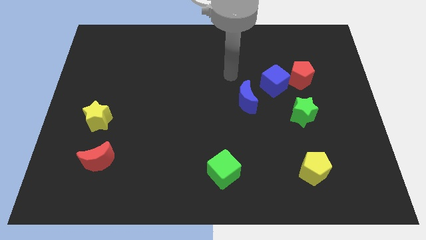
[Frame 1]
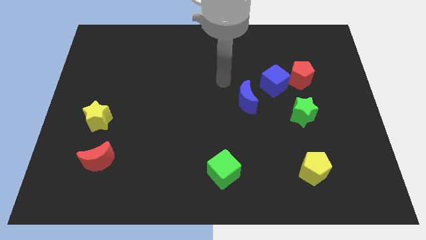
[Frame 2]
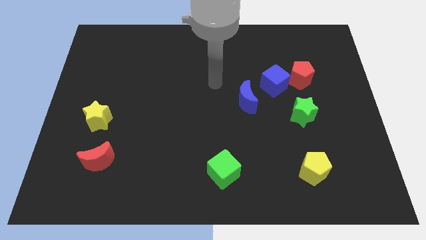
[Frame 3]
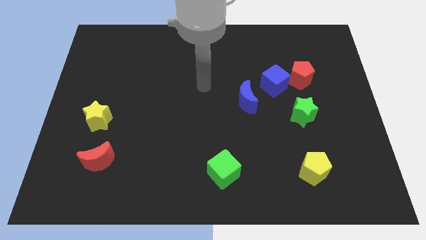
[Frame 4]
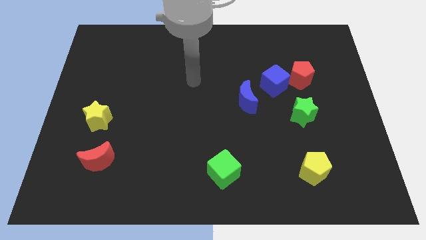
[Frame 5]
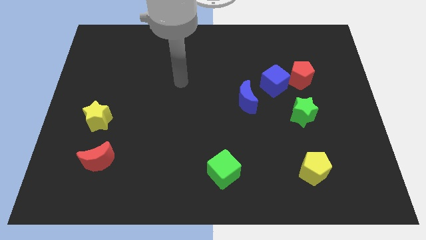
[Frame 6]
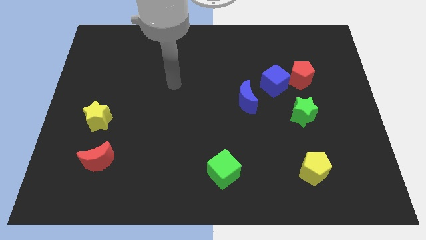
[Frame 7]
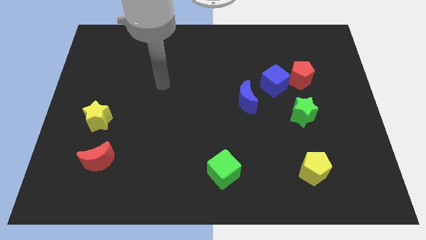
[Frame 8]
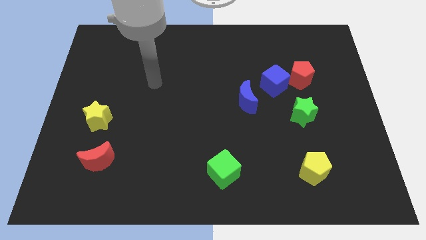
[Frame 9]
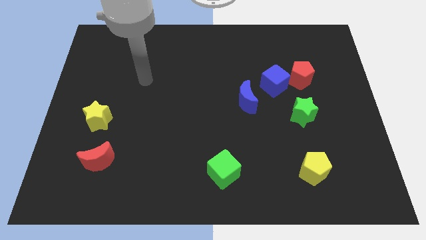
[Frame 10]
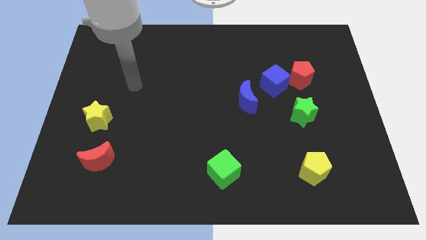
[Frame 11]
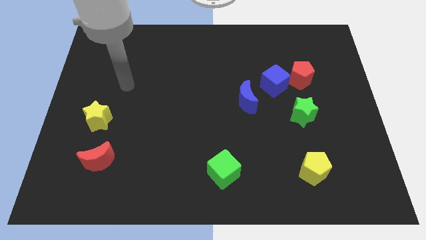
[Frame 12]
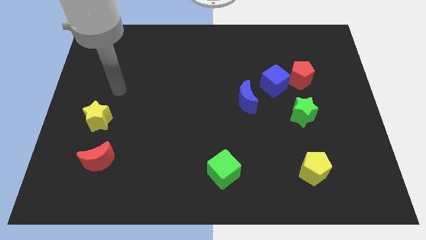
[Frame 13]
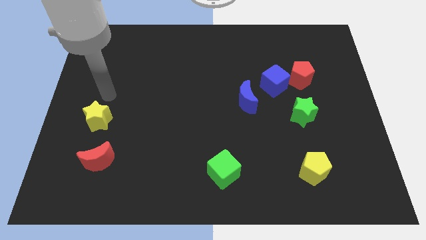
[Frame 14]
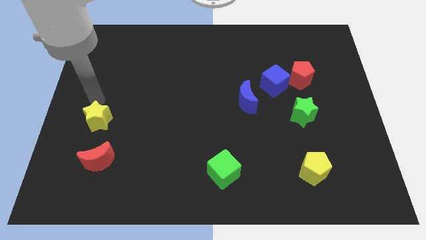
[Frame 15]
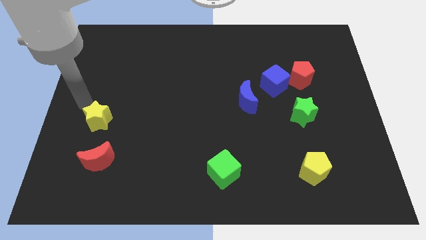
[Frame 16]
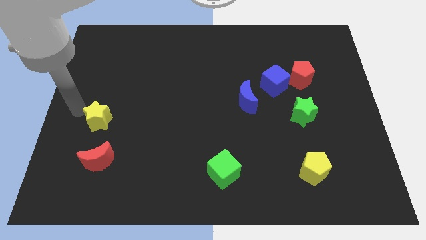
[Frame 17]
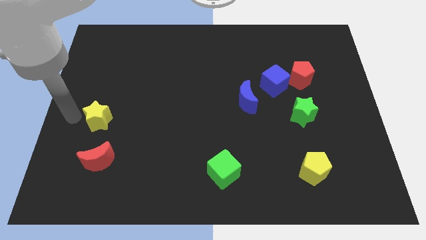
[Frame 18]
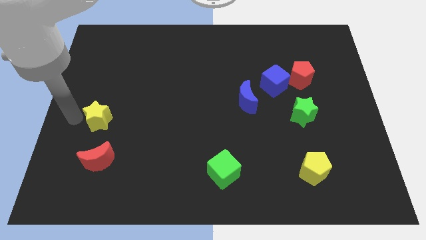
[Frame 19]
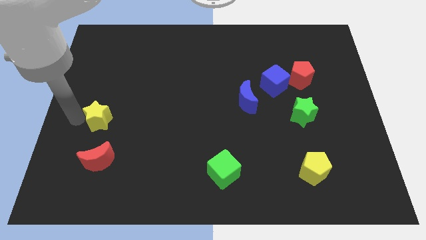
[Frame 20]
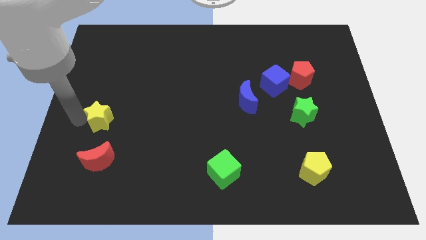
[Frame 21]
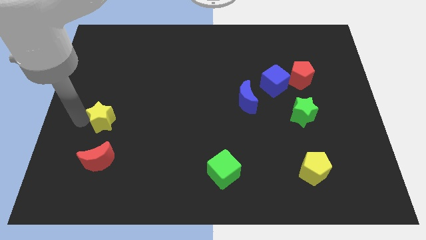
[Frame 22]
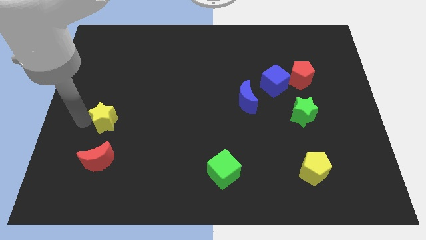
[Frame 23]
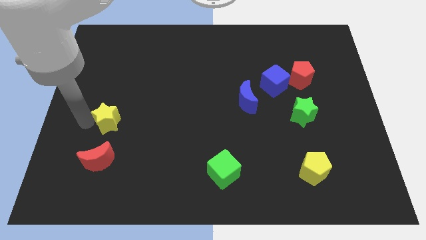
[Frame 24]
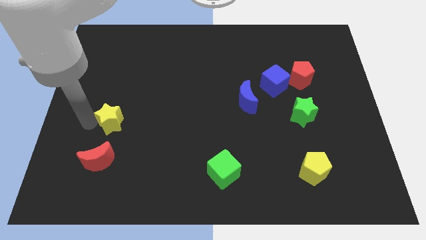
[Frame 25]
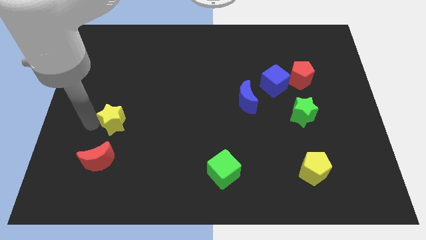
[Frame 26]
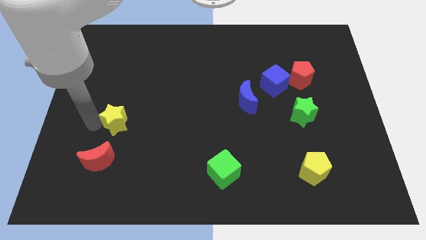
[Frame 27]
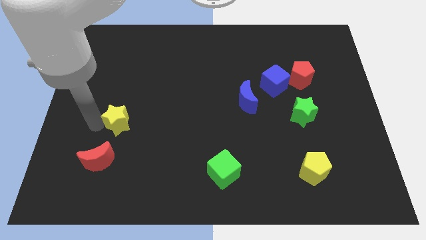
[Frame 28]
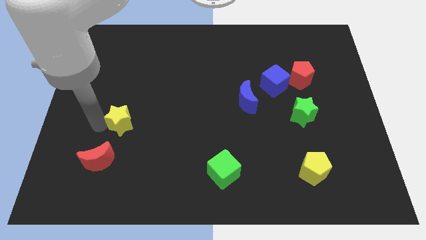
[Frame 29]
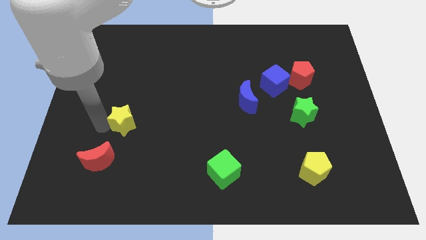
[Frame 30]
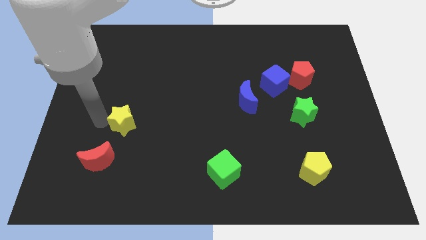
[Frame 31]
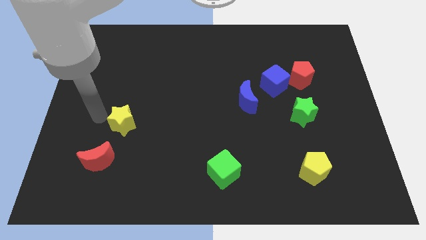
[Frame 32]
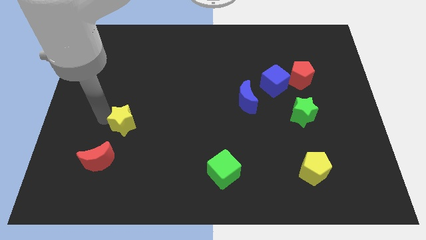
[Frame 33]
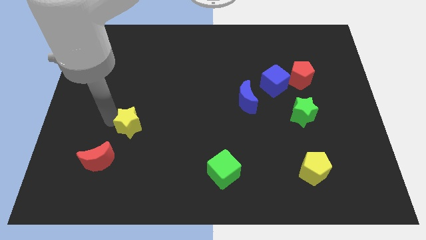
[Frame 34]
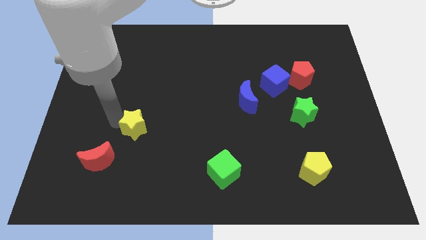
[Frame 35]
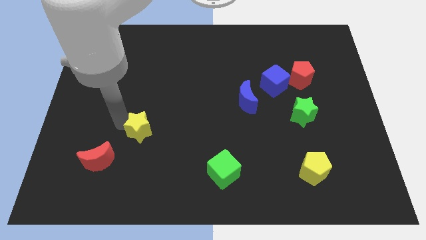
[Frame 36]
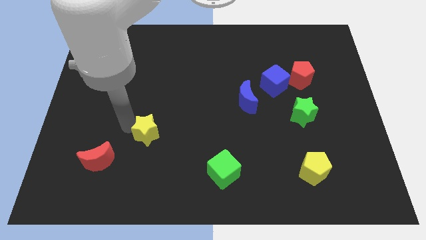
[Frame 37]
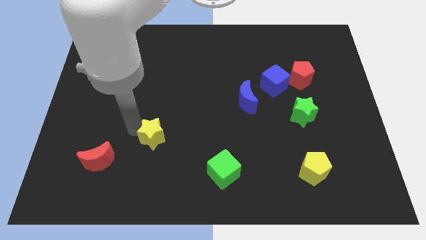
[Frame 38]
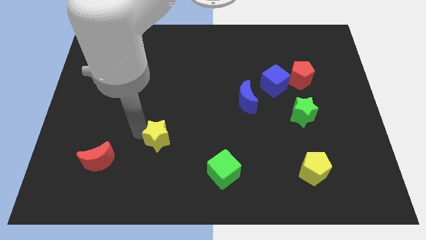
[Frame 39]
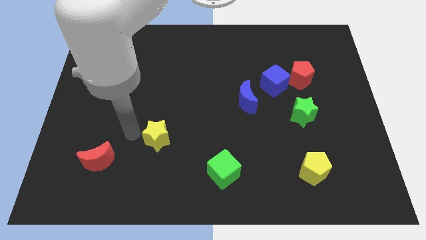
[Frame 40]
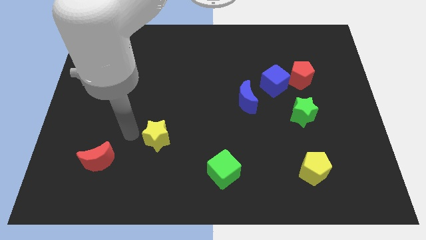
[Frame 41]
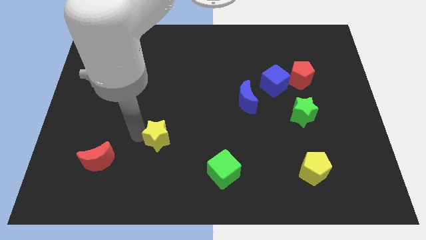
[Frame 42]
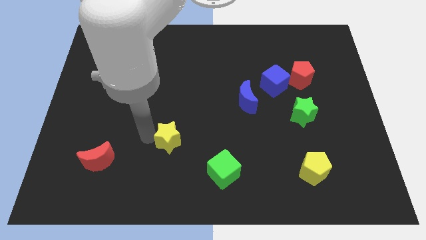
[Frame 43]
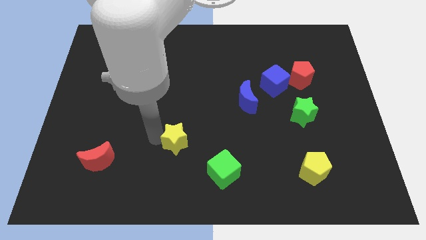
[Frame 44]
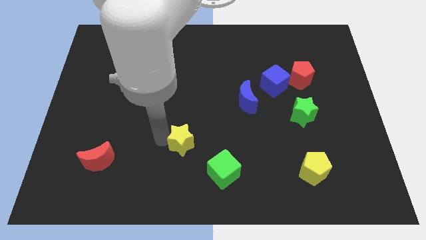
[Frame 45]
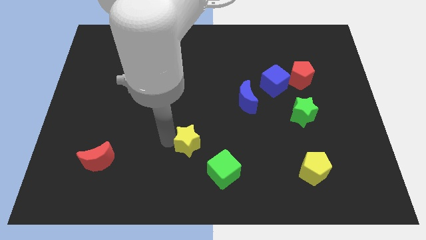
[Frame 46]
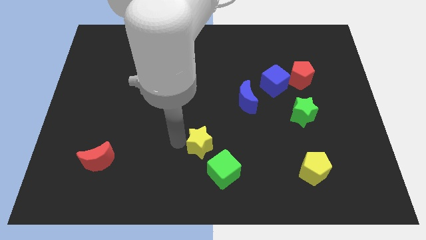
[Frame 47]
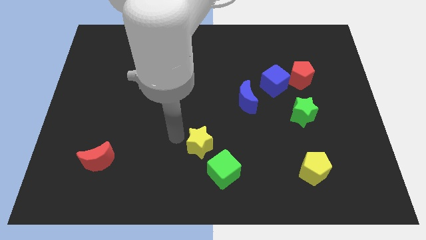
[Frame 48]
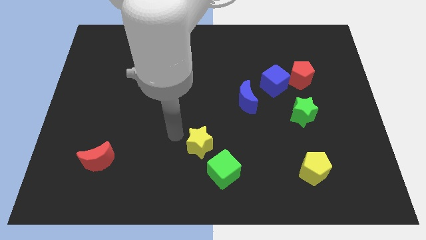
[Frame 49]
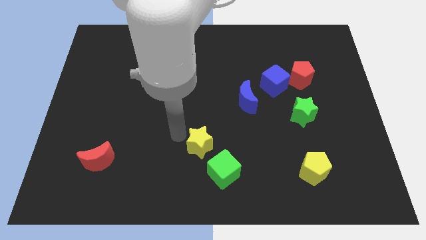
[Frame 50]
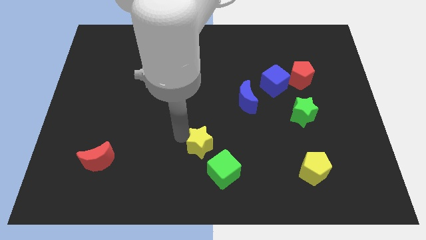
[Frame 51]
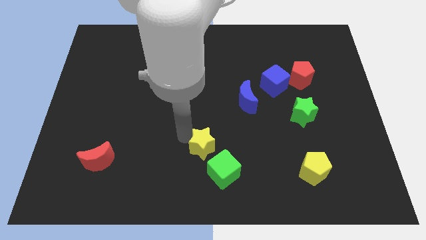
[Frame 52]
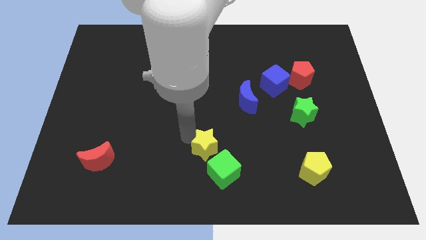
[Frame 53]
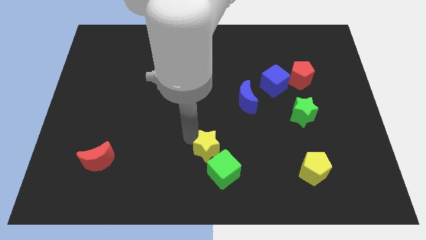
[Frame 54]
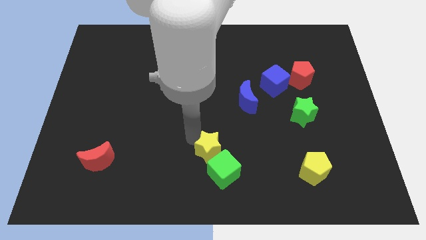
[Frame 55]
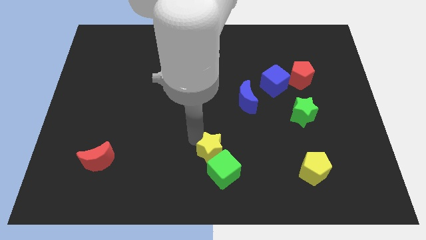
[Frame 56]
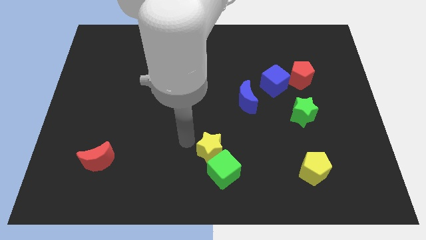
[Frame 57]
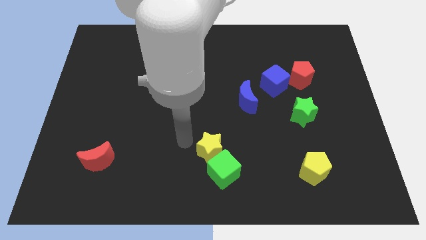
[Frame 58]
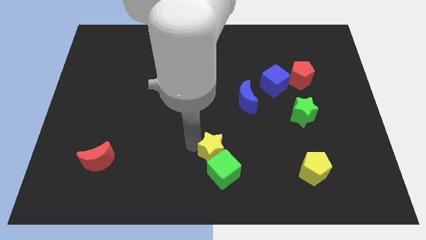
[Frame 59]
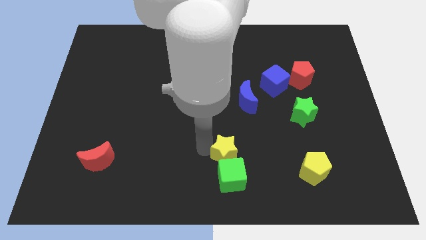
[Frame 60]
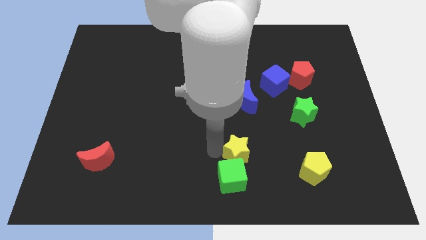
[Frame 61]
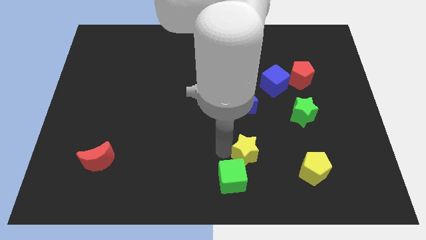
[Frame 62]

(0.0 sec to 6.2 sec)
move the yellow star left of the yellow pentagon

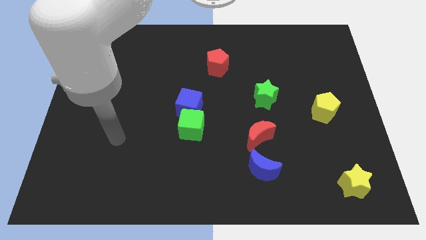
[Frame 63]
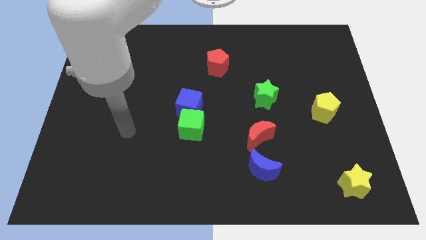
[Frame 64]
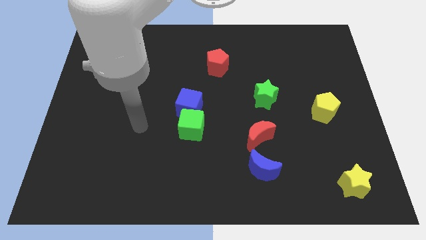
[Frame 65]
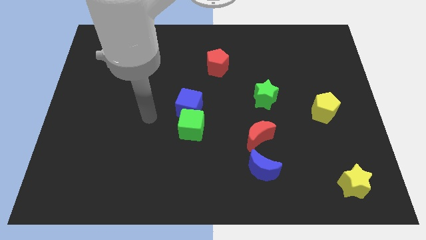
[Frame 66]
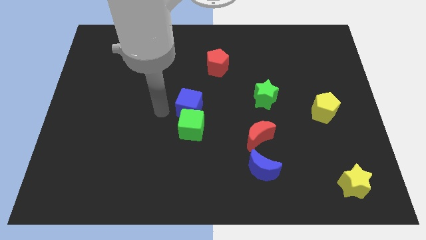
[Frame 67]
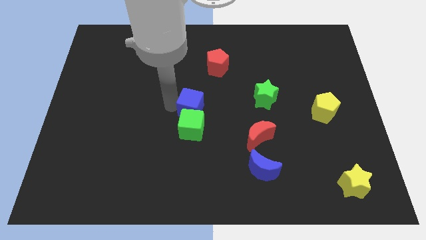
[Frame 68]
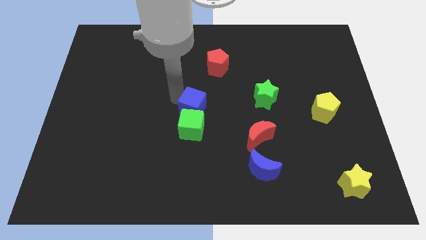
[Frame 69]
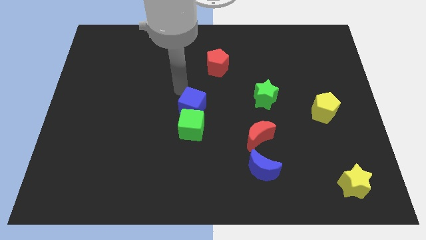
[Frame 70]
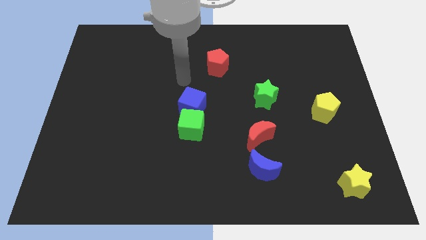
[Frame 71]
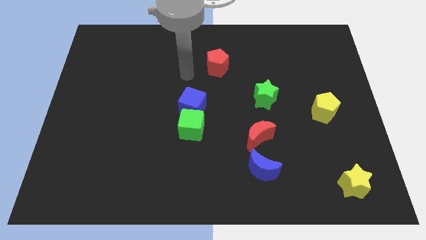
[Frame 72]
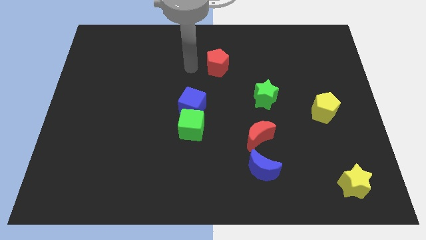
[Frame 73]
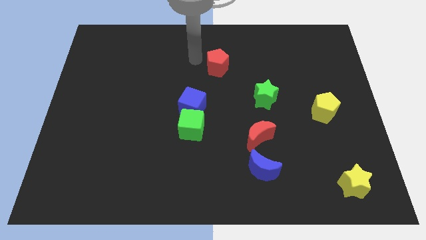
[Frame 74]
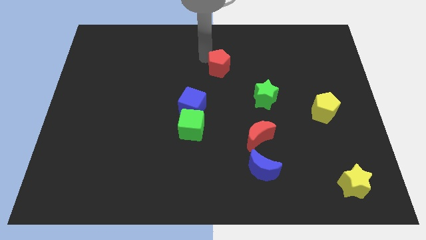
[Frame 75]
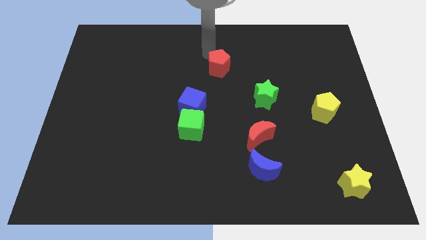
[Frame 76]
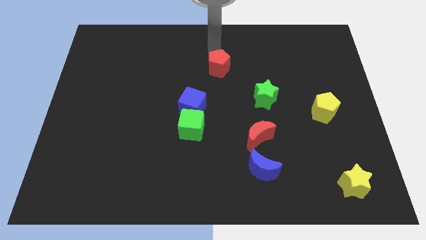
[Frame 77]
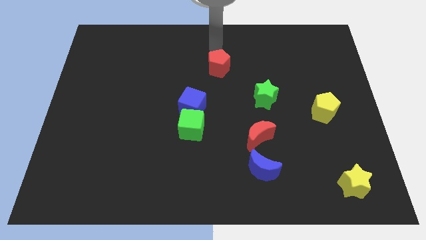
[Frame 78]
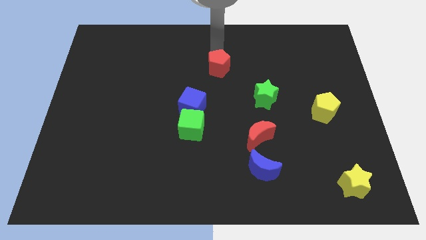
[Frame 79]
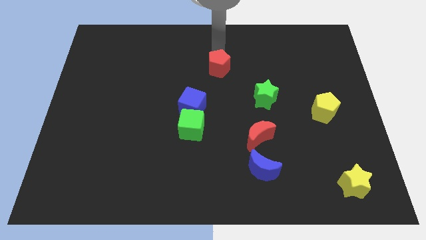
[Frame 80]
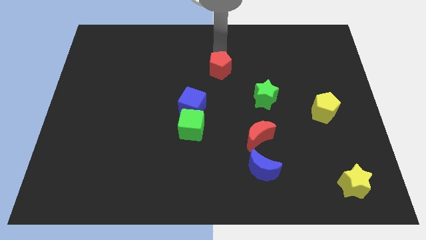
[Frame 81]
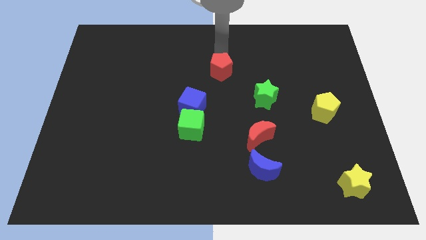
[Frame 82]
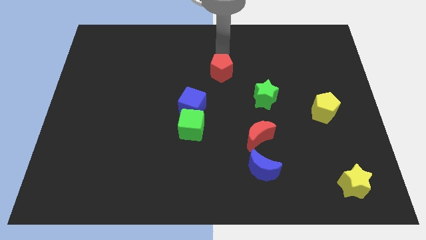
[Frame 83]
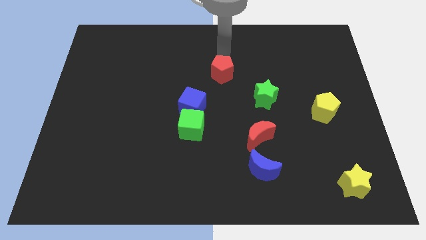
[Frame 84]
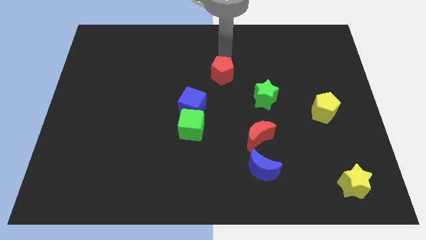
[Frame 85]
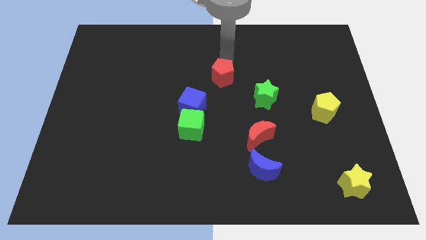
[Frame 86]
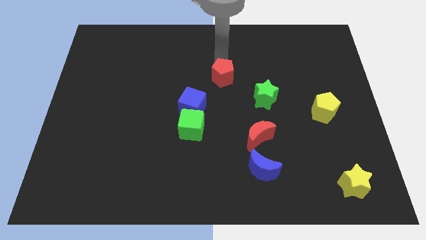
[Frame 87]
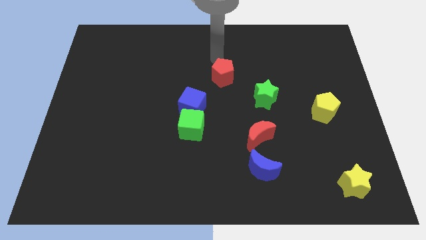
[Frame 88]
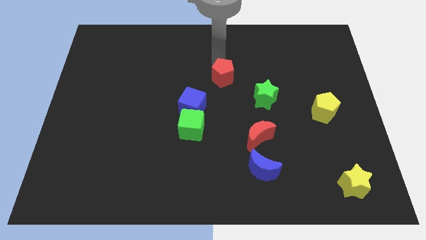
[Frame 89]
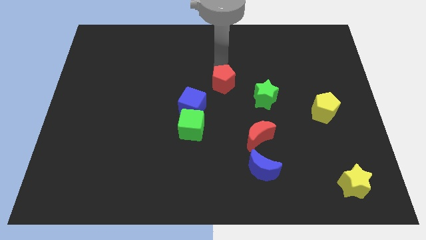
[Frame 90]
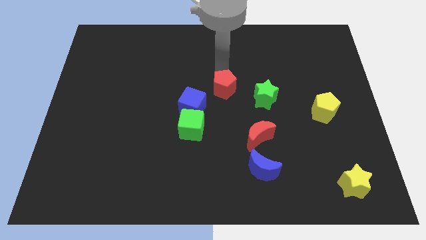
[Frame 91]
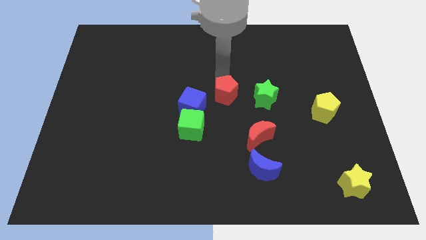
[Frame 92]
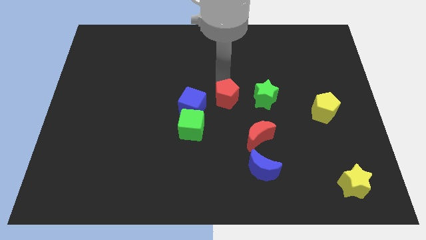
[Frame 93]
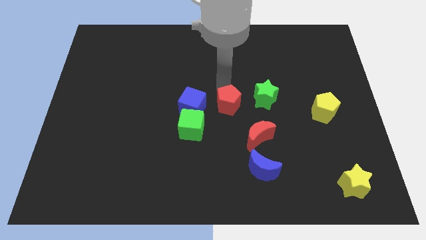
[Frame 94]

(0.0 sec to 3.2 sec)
slide the red pentagon to the bottom left side of the green star
